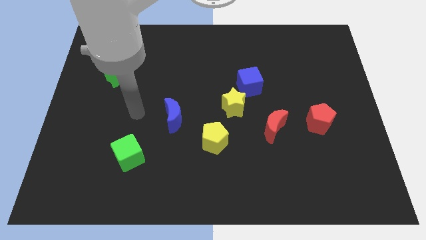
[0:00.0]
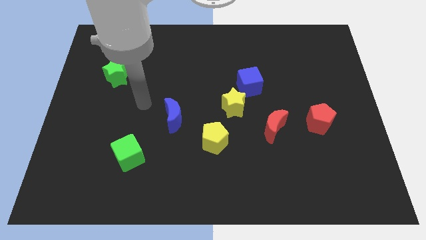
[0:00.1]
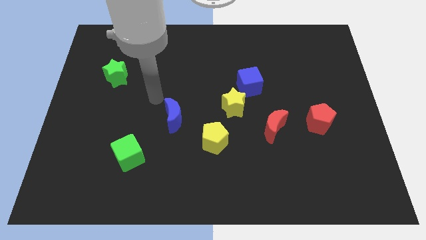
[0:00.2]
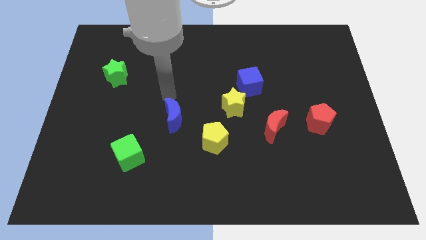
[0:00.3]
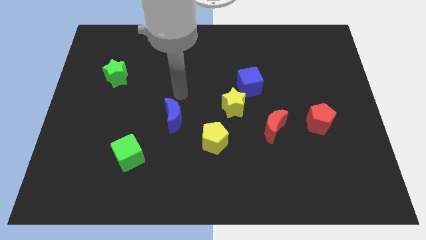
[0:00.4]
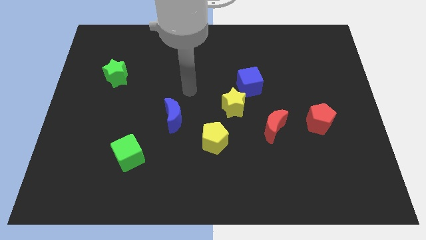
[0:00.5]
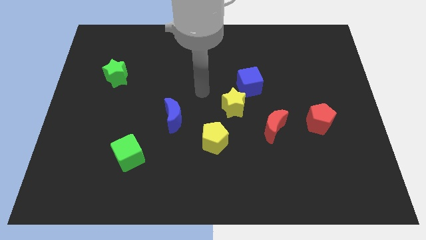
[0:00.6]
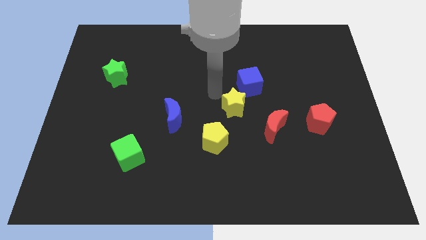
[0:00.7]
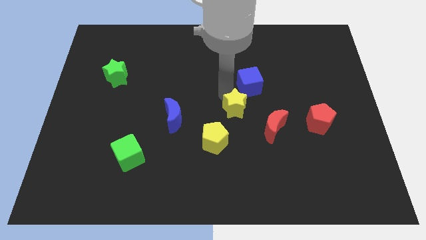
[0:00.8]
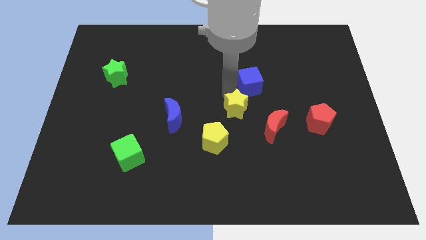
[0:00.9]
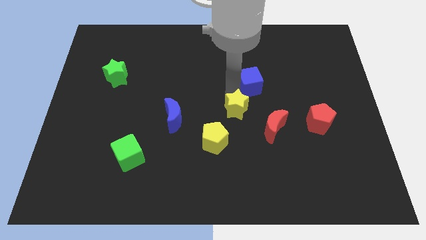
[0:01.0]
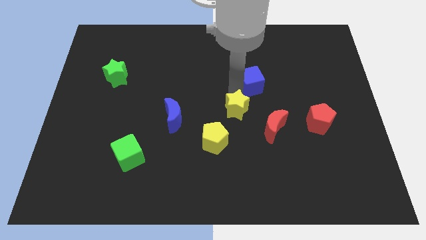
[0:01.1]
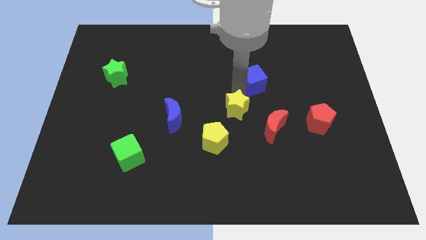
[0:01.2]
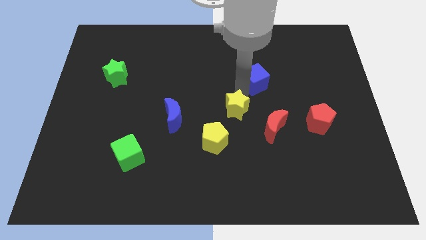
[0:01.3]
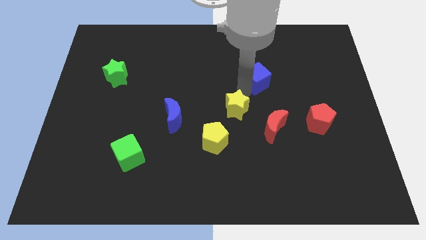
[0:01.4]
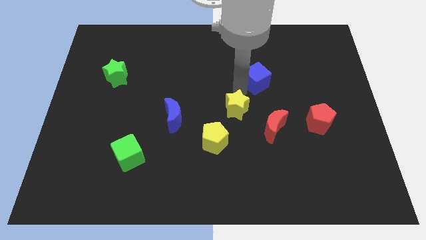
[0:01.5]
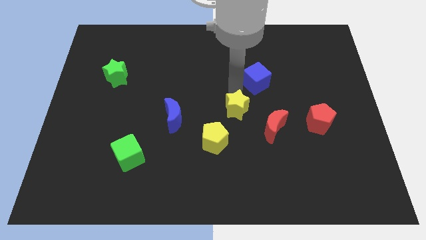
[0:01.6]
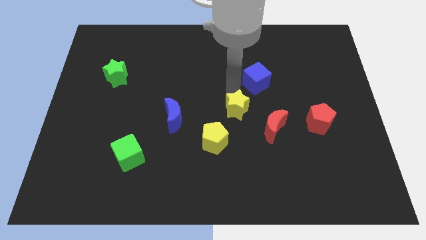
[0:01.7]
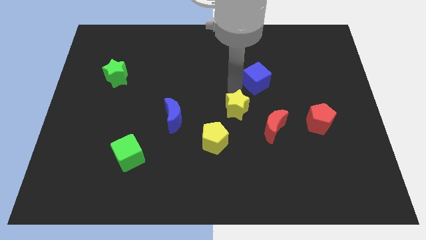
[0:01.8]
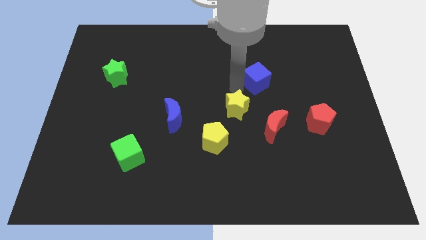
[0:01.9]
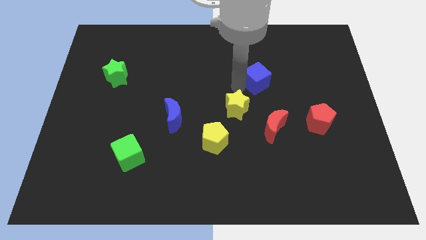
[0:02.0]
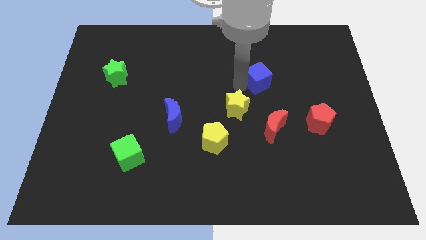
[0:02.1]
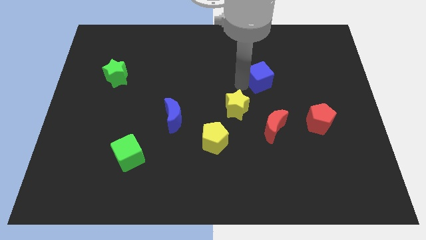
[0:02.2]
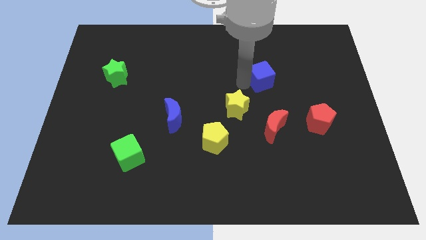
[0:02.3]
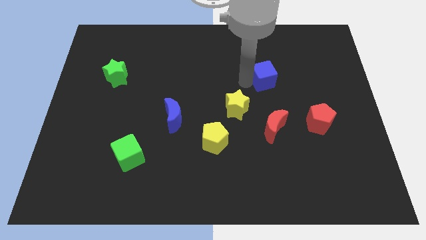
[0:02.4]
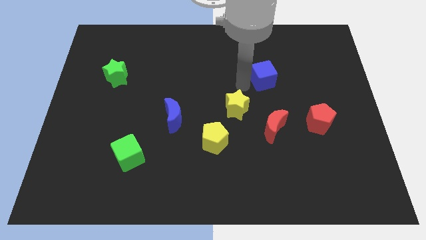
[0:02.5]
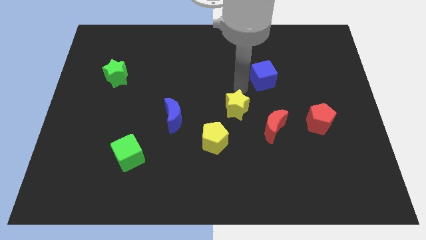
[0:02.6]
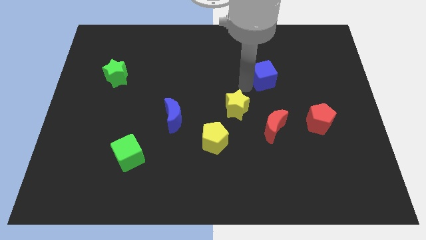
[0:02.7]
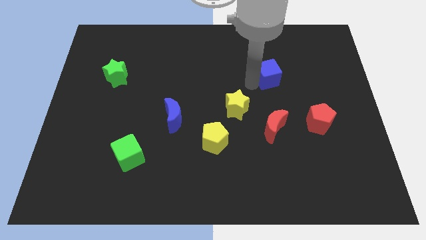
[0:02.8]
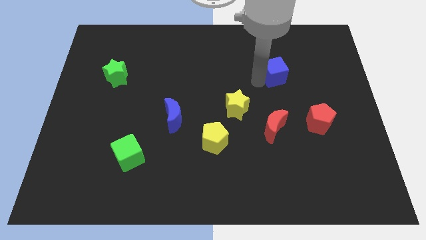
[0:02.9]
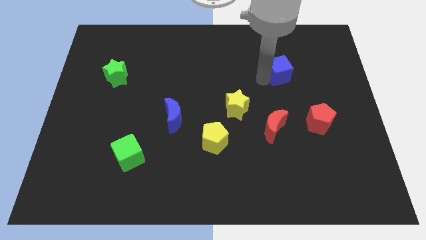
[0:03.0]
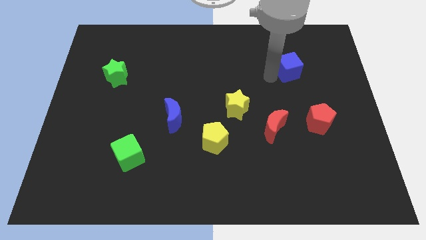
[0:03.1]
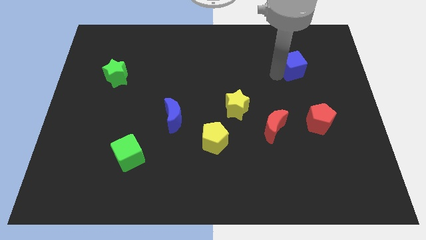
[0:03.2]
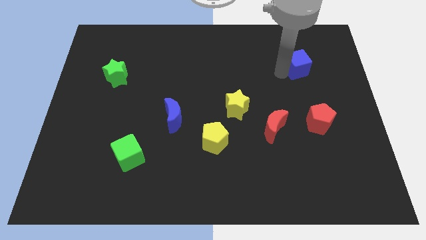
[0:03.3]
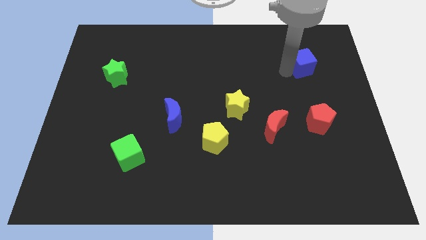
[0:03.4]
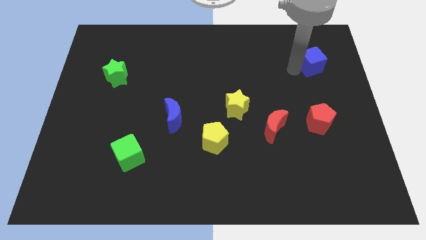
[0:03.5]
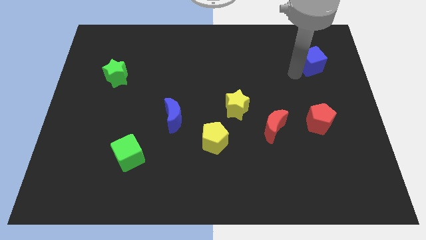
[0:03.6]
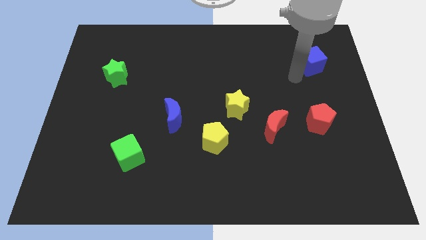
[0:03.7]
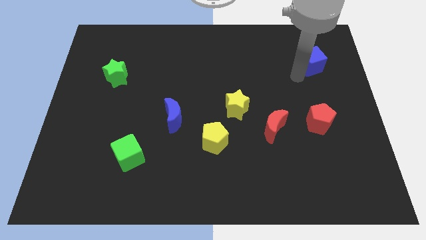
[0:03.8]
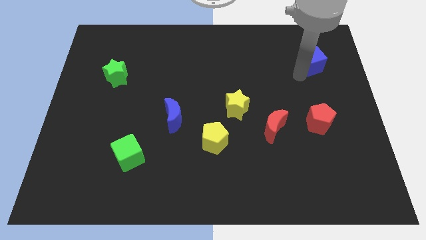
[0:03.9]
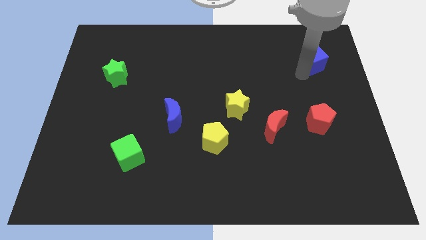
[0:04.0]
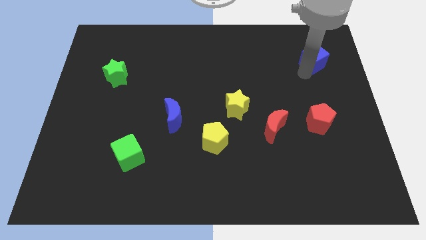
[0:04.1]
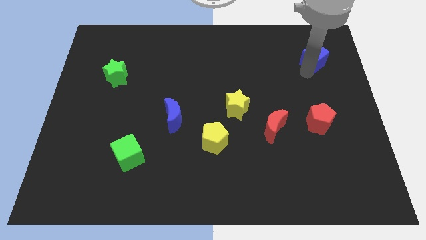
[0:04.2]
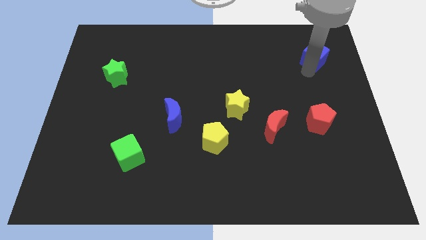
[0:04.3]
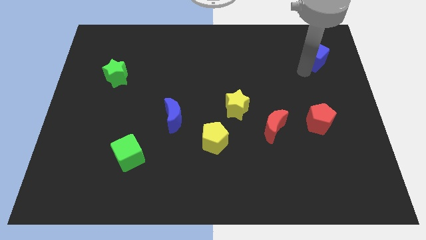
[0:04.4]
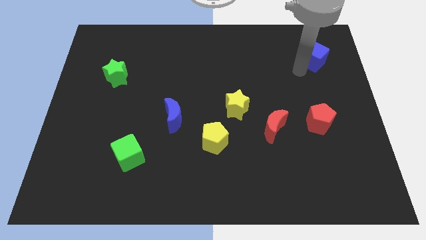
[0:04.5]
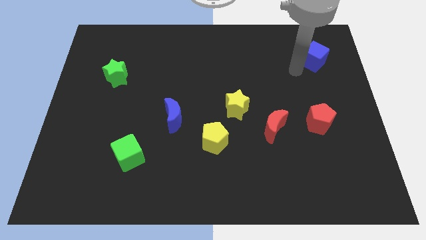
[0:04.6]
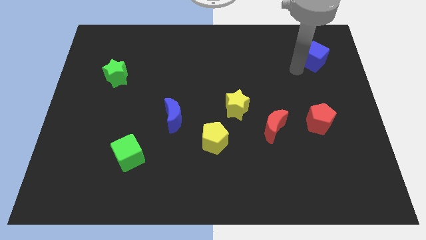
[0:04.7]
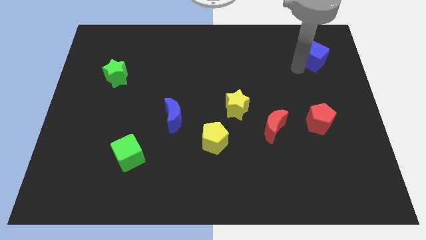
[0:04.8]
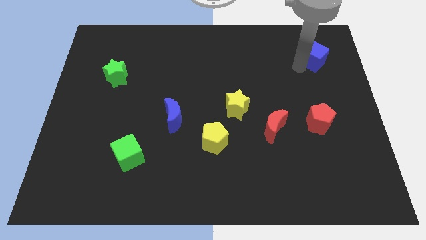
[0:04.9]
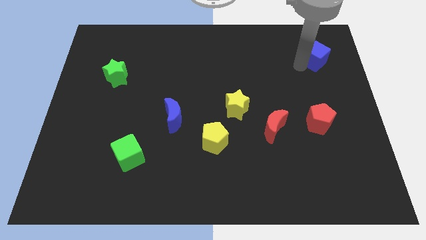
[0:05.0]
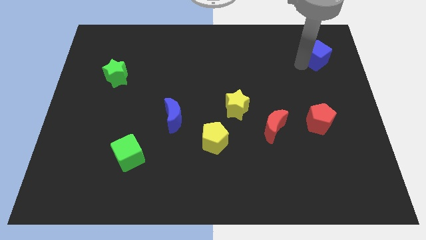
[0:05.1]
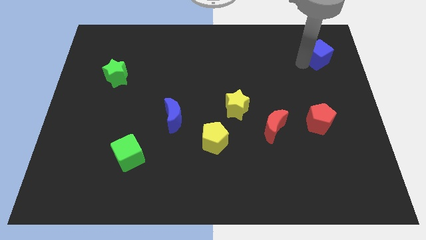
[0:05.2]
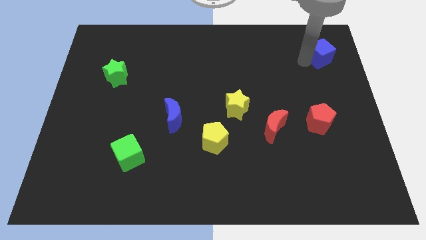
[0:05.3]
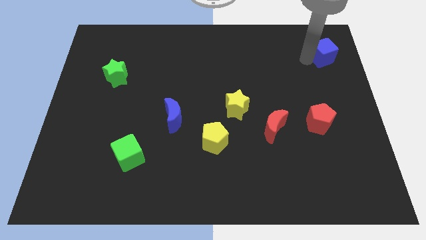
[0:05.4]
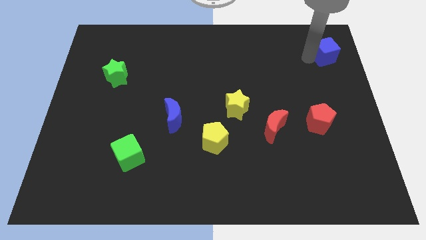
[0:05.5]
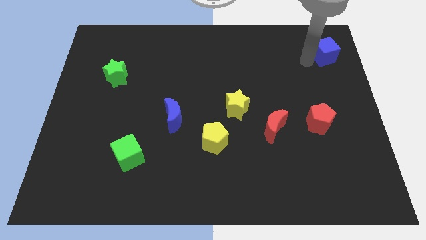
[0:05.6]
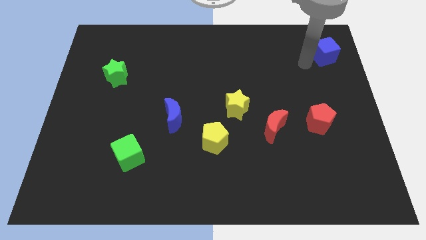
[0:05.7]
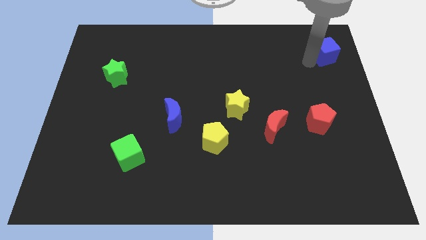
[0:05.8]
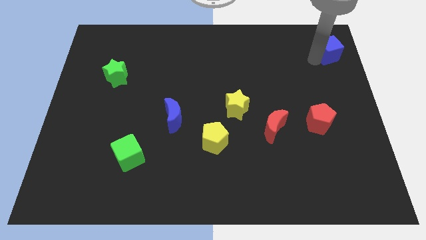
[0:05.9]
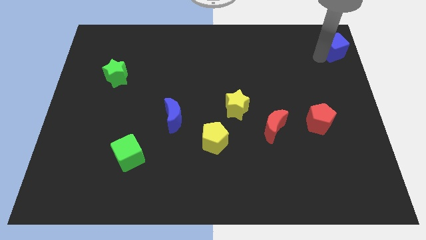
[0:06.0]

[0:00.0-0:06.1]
push the blue cube to the upper right corner
